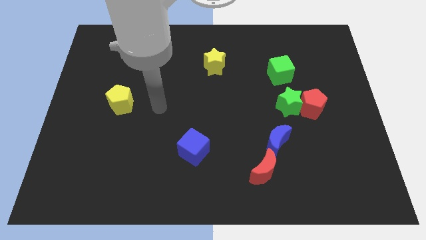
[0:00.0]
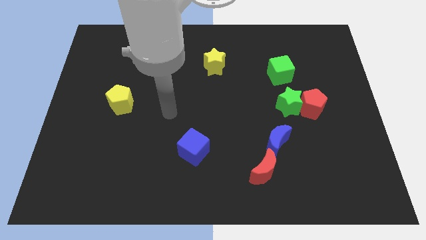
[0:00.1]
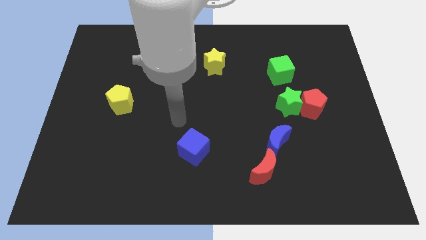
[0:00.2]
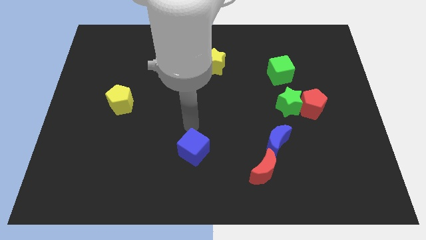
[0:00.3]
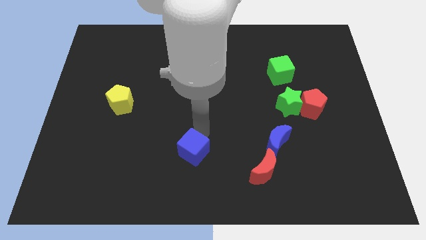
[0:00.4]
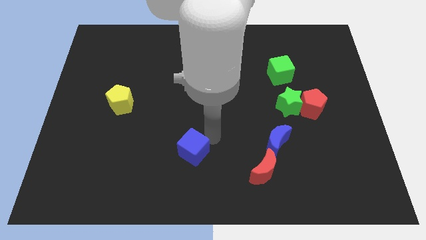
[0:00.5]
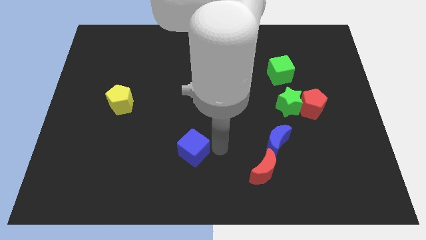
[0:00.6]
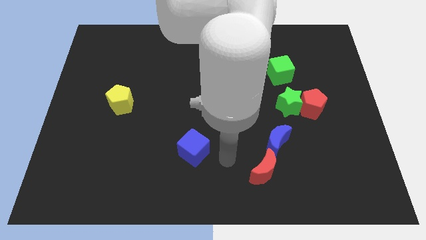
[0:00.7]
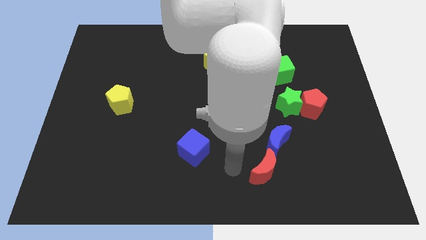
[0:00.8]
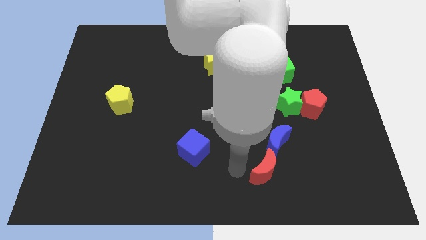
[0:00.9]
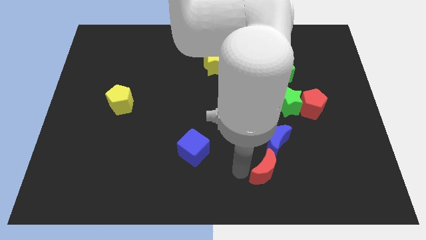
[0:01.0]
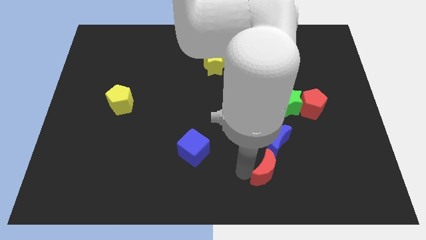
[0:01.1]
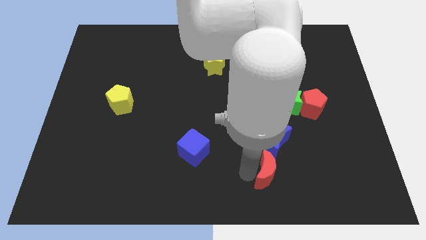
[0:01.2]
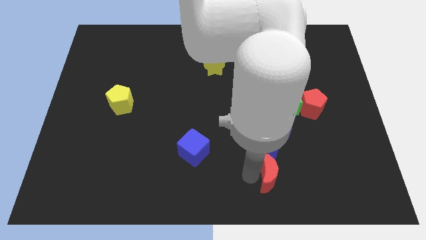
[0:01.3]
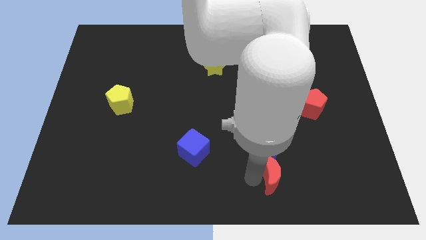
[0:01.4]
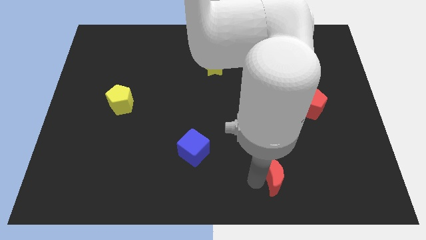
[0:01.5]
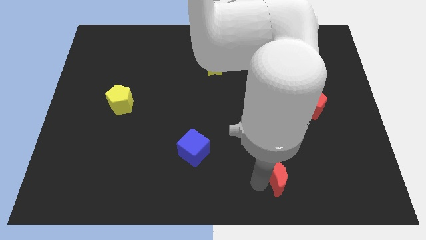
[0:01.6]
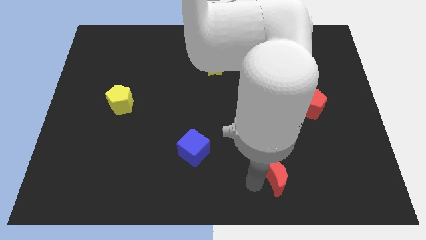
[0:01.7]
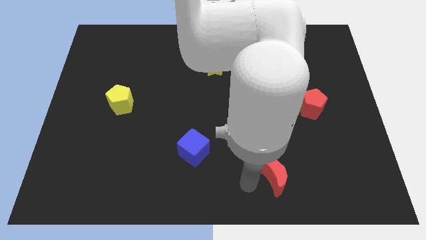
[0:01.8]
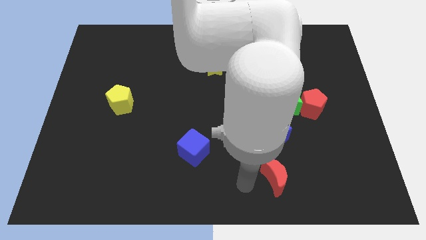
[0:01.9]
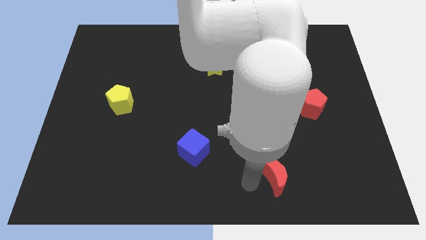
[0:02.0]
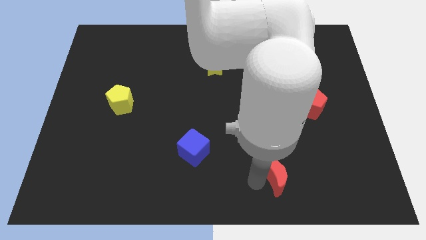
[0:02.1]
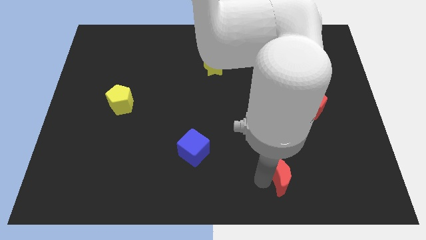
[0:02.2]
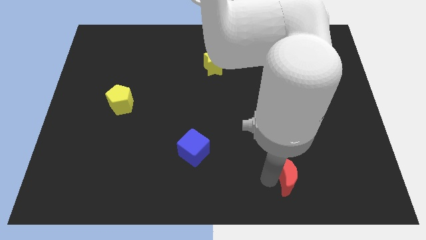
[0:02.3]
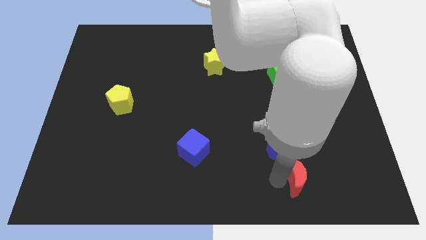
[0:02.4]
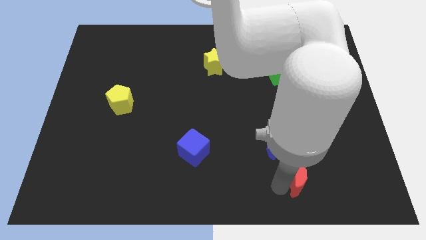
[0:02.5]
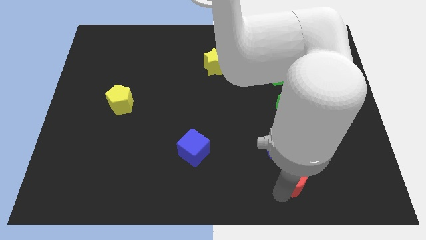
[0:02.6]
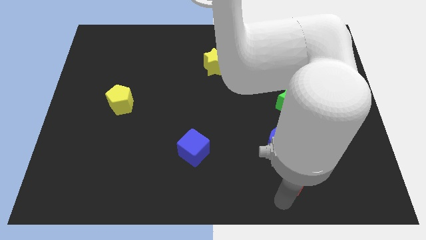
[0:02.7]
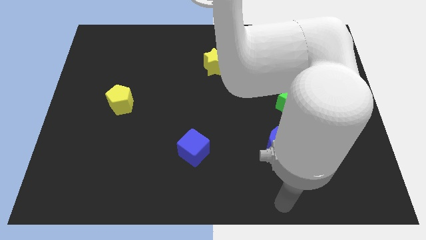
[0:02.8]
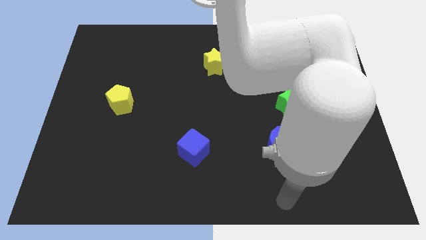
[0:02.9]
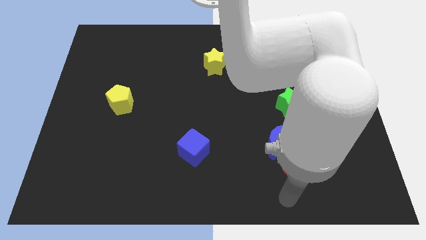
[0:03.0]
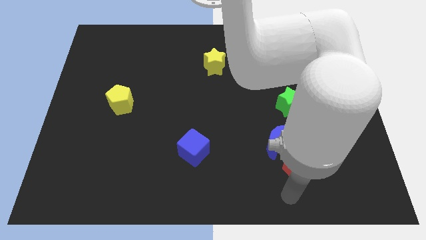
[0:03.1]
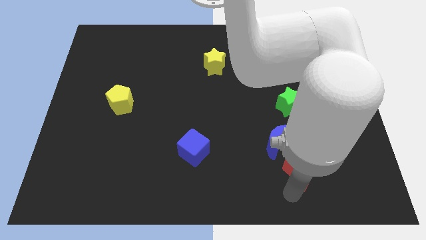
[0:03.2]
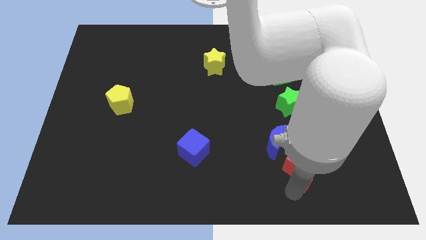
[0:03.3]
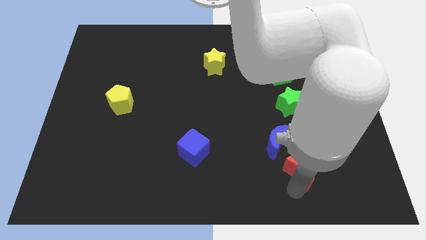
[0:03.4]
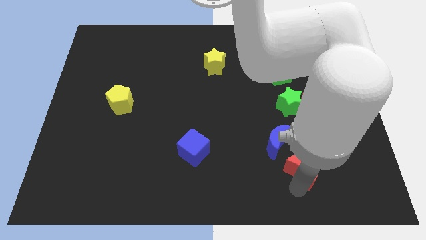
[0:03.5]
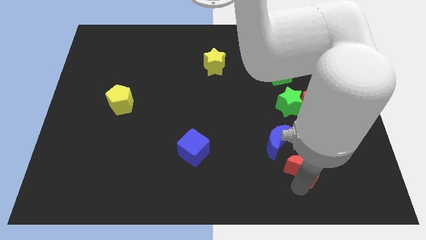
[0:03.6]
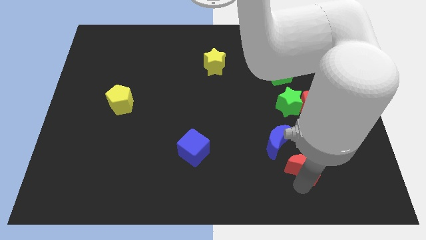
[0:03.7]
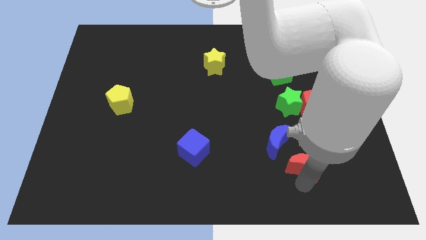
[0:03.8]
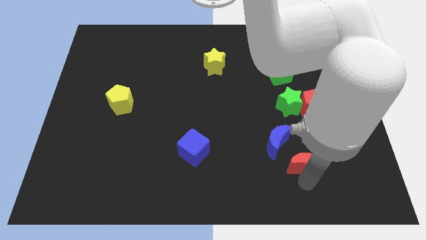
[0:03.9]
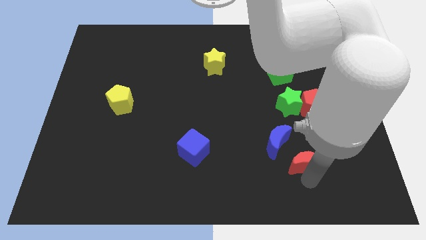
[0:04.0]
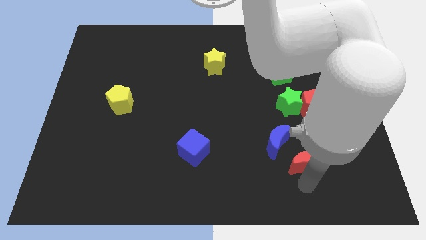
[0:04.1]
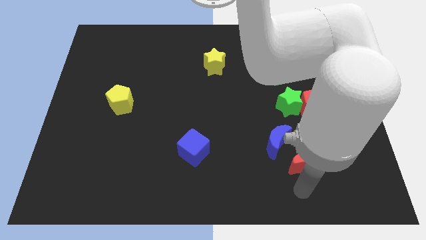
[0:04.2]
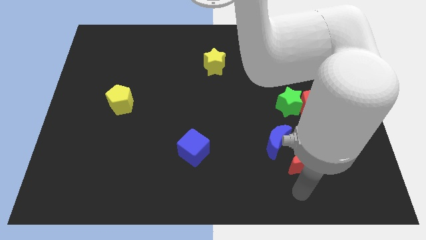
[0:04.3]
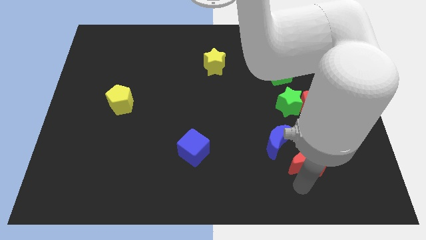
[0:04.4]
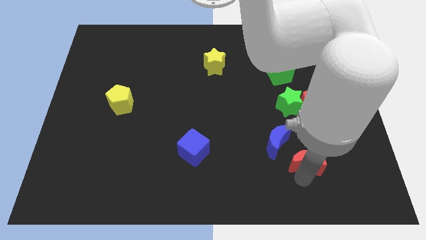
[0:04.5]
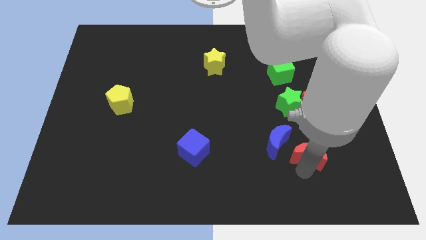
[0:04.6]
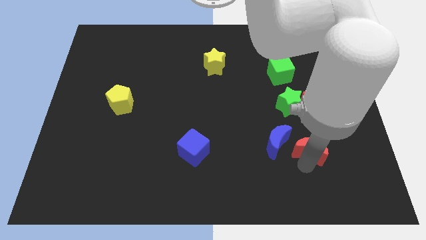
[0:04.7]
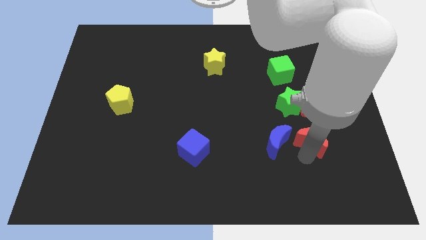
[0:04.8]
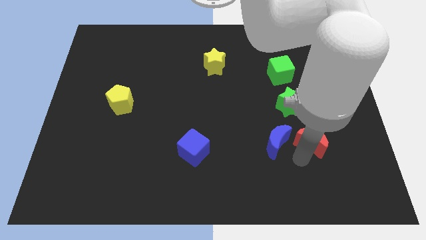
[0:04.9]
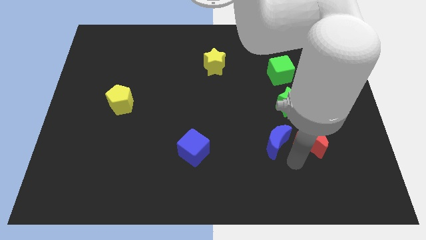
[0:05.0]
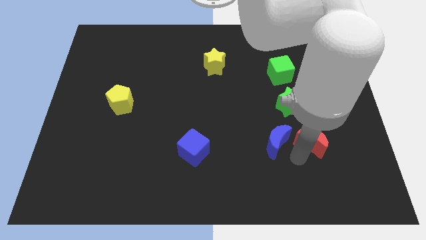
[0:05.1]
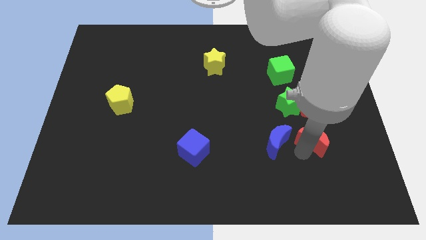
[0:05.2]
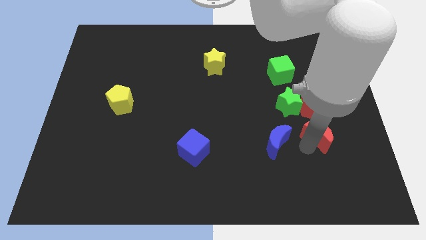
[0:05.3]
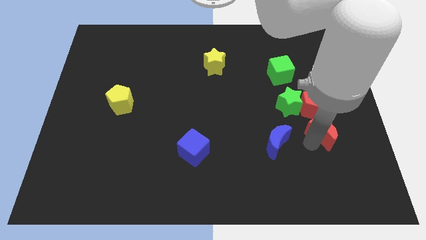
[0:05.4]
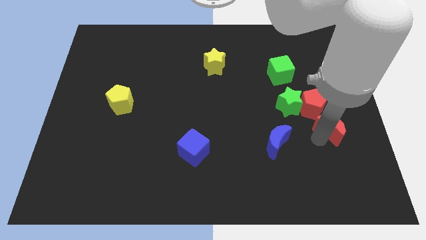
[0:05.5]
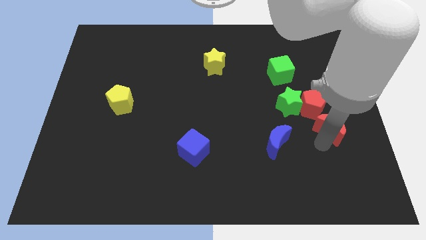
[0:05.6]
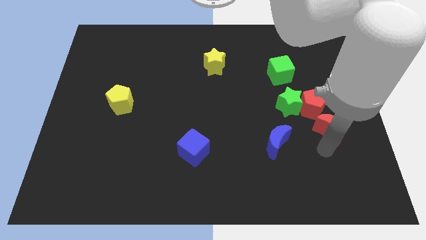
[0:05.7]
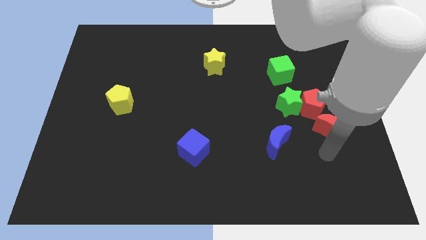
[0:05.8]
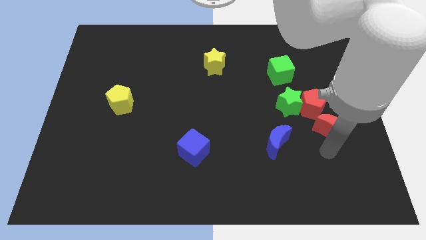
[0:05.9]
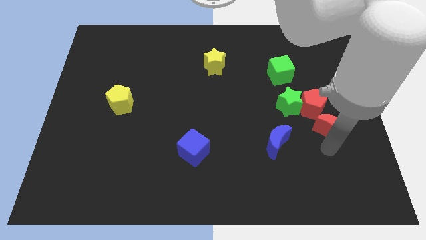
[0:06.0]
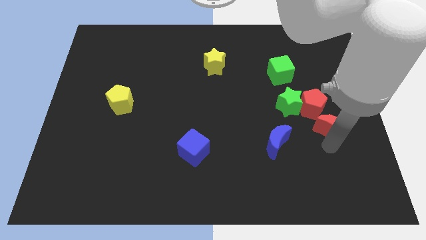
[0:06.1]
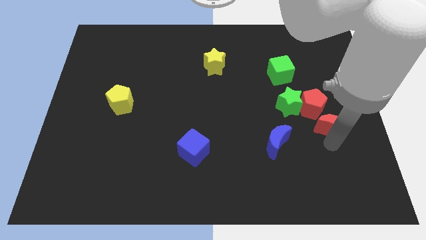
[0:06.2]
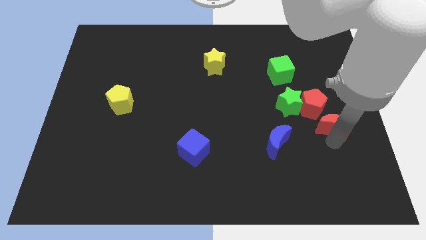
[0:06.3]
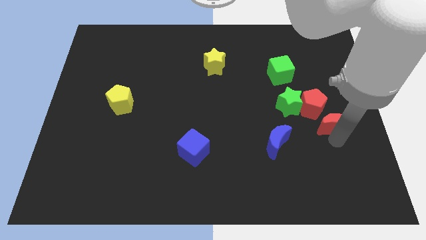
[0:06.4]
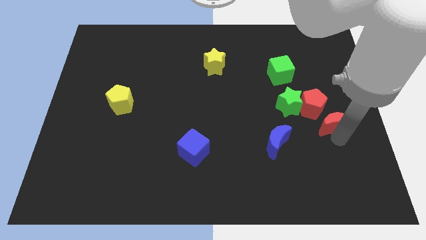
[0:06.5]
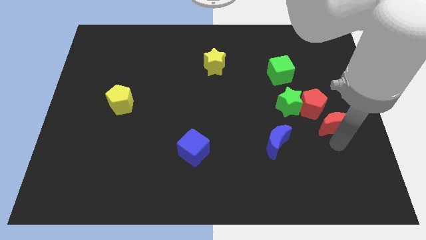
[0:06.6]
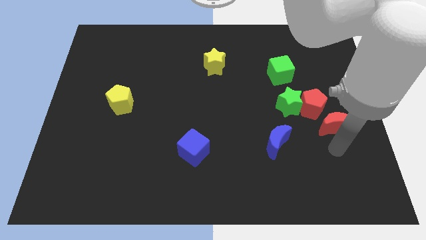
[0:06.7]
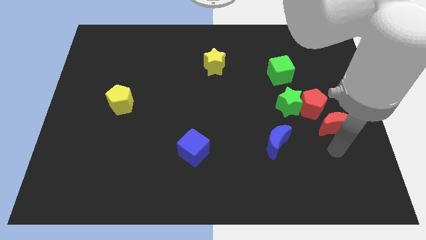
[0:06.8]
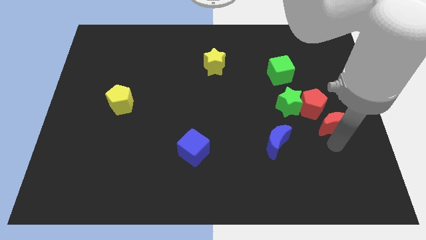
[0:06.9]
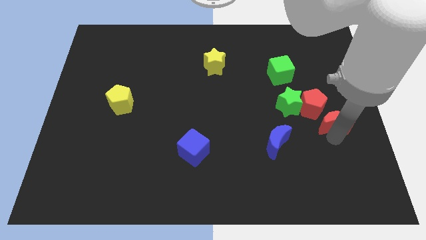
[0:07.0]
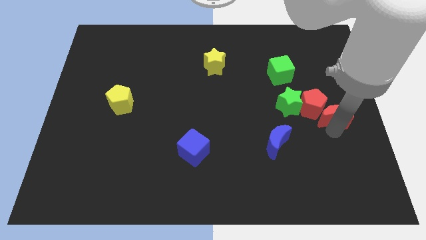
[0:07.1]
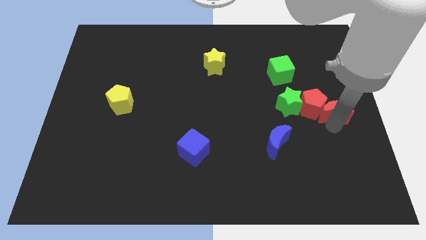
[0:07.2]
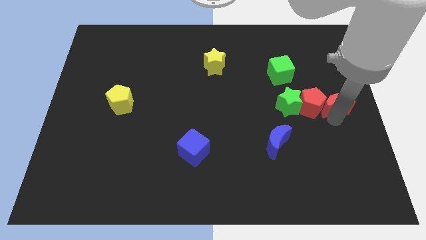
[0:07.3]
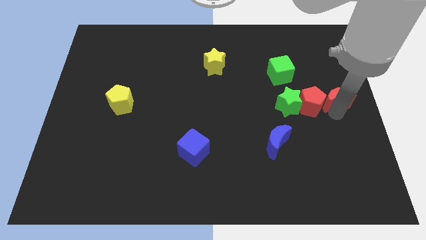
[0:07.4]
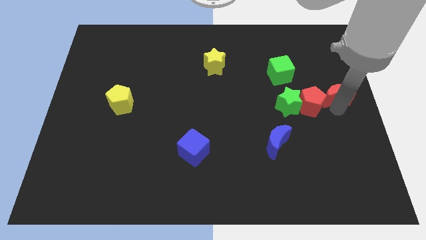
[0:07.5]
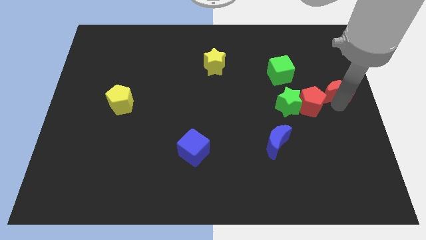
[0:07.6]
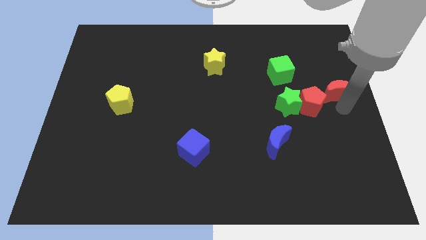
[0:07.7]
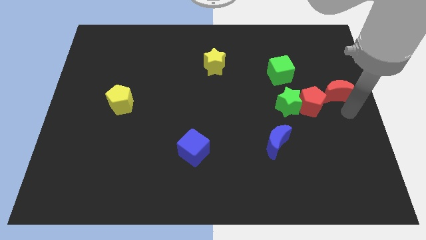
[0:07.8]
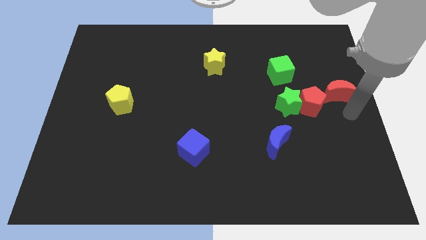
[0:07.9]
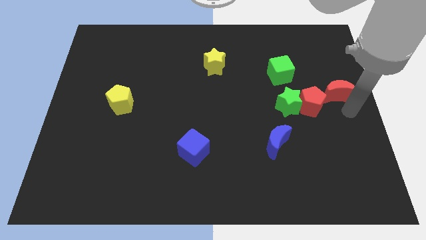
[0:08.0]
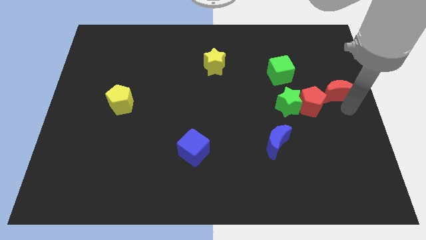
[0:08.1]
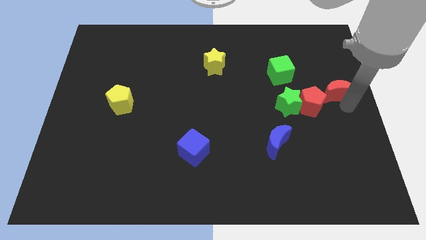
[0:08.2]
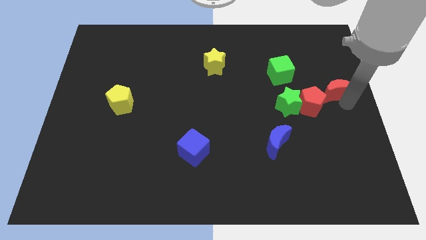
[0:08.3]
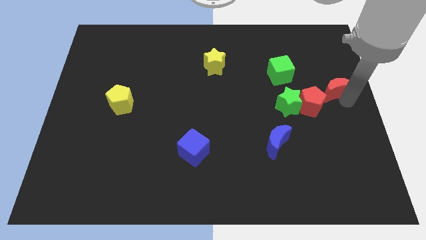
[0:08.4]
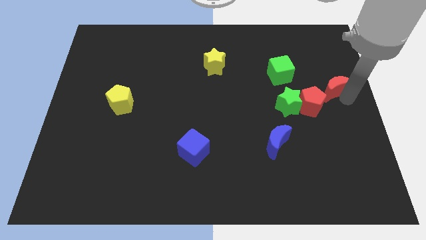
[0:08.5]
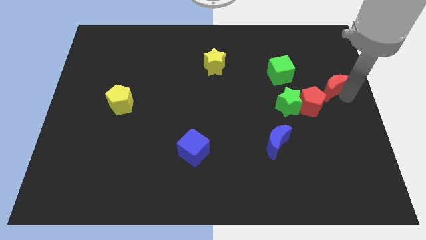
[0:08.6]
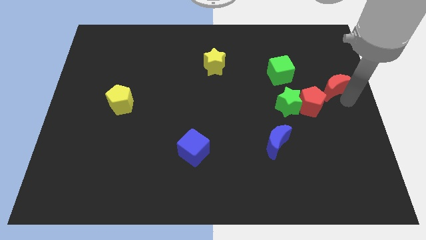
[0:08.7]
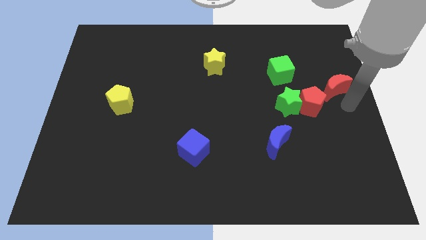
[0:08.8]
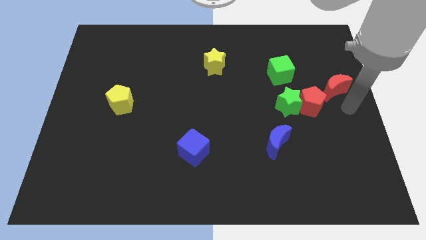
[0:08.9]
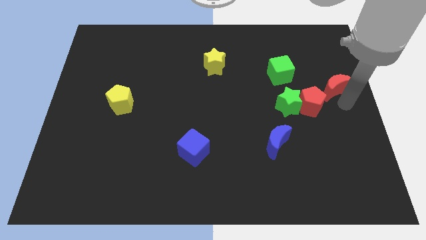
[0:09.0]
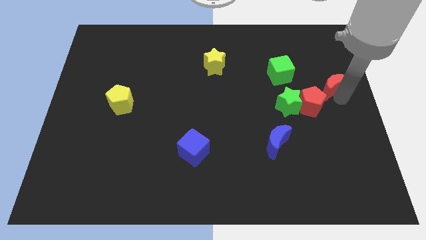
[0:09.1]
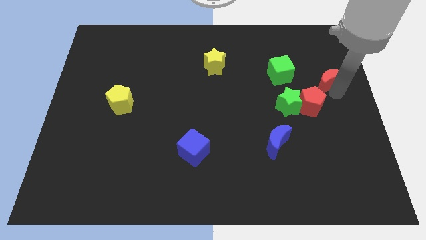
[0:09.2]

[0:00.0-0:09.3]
push the red moon just right of the green cube
